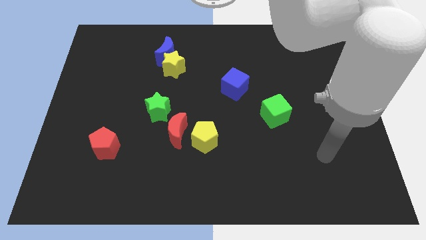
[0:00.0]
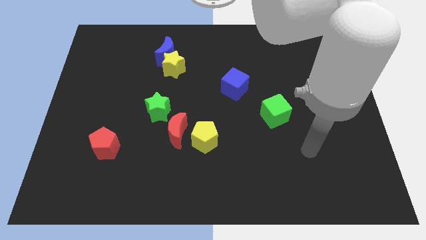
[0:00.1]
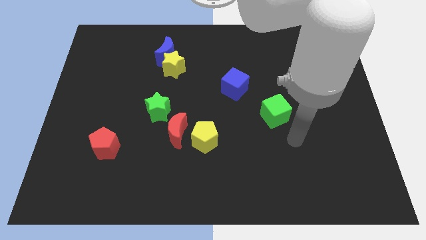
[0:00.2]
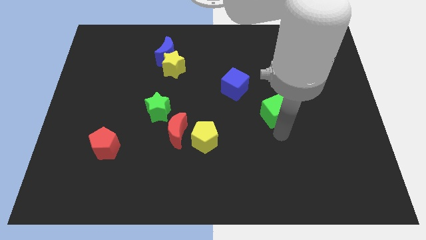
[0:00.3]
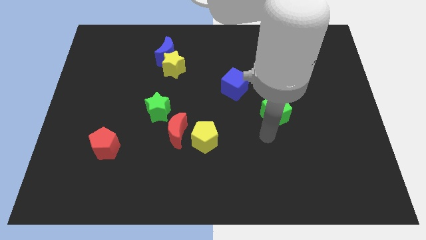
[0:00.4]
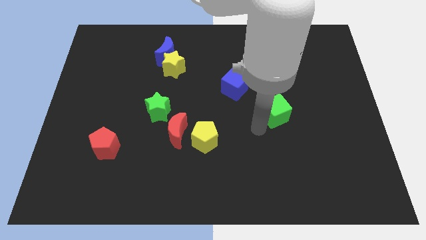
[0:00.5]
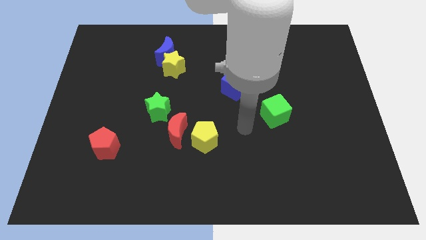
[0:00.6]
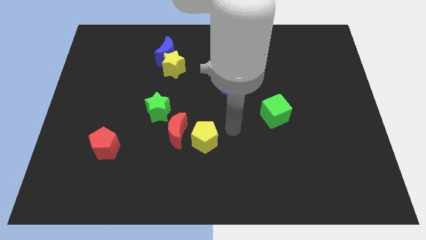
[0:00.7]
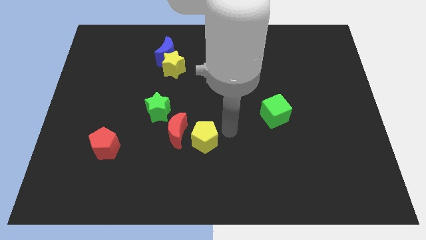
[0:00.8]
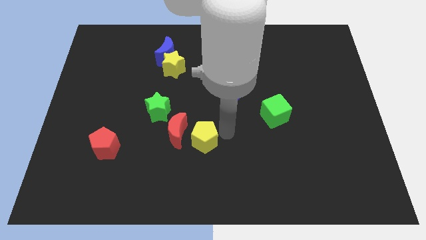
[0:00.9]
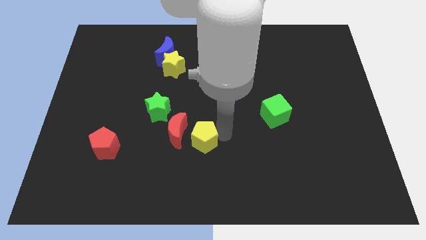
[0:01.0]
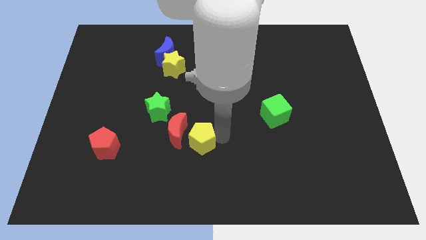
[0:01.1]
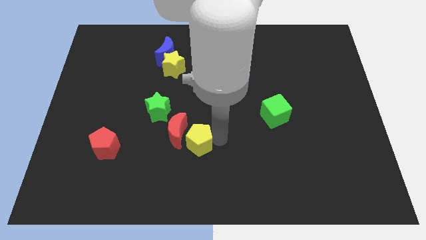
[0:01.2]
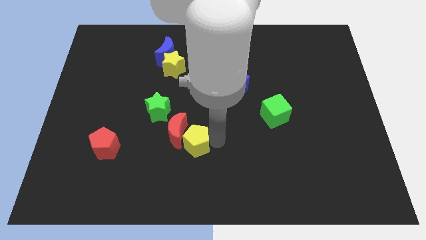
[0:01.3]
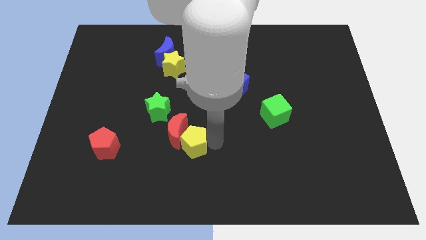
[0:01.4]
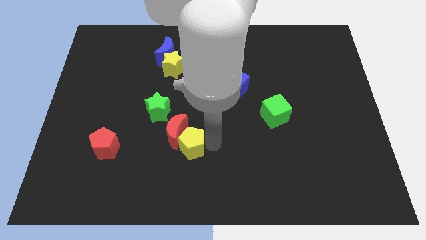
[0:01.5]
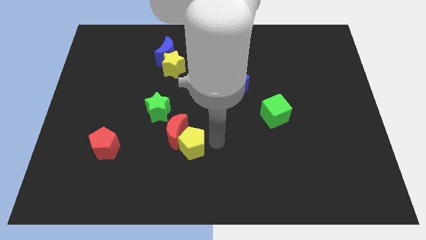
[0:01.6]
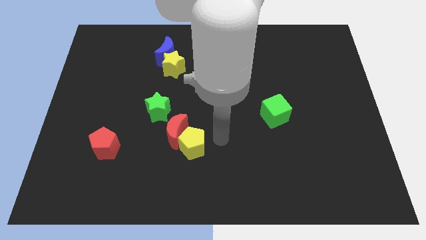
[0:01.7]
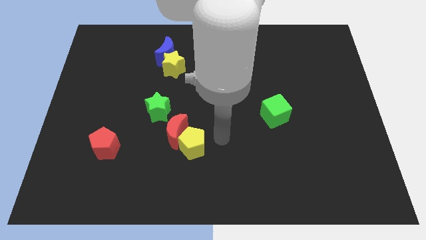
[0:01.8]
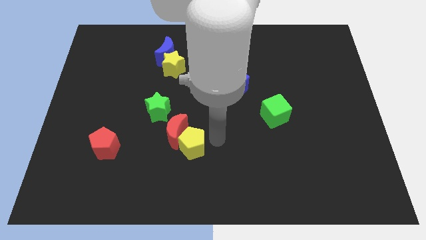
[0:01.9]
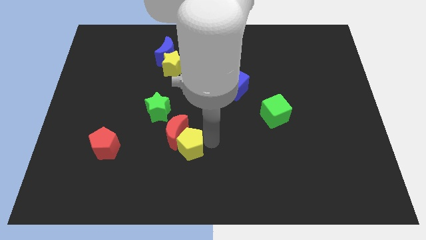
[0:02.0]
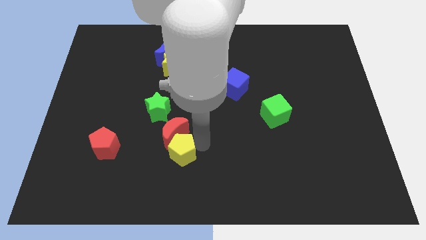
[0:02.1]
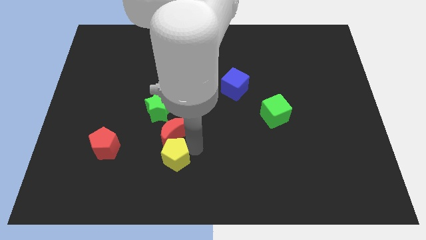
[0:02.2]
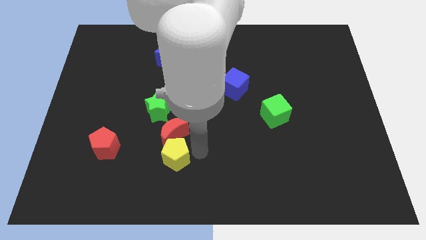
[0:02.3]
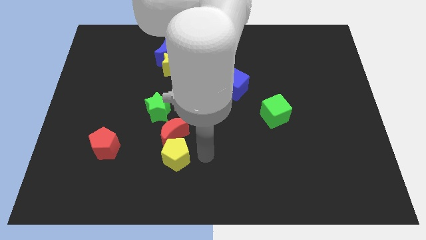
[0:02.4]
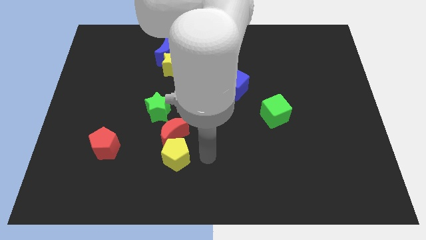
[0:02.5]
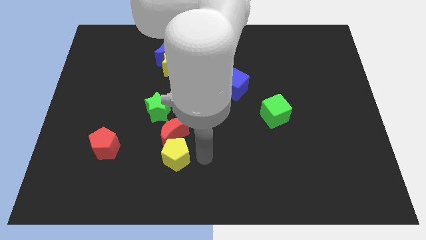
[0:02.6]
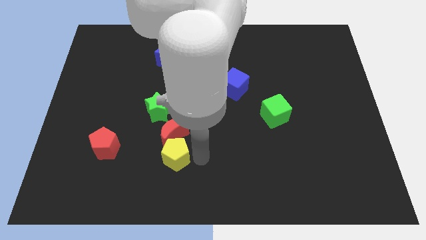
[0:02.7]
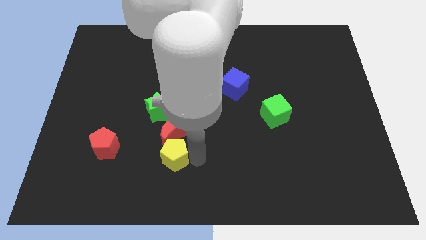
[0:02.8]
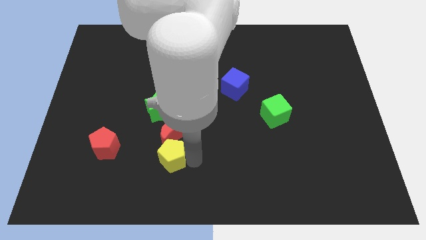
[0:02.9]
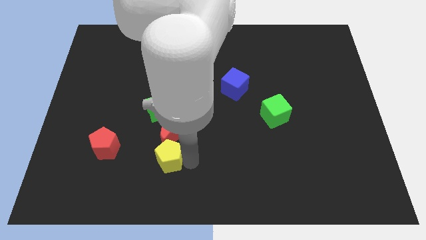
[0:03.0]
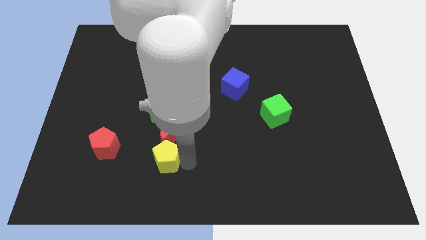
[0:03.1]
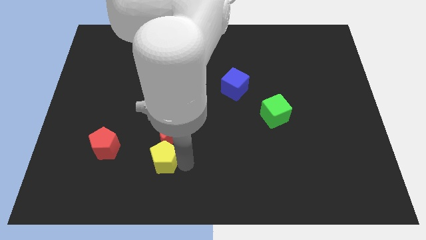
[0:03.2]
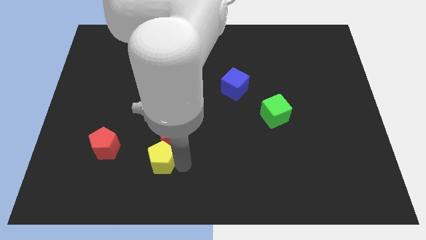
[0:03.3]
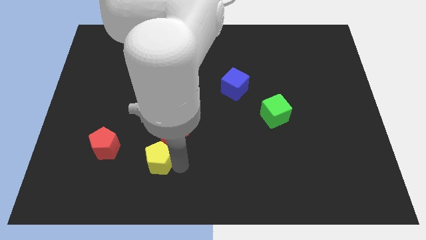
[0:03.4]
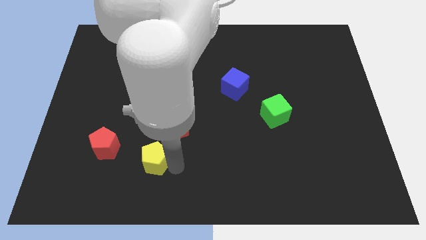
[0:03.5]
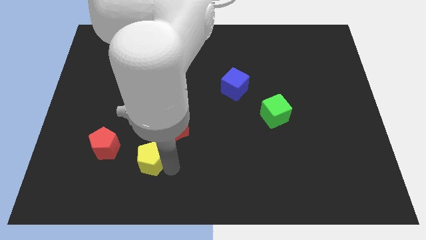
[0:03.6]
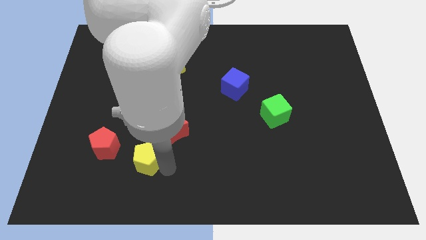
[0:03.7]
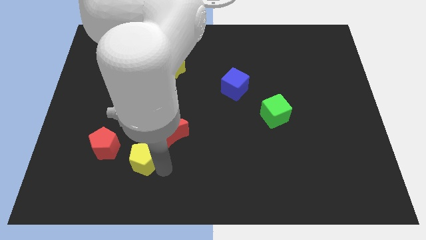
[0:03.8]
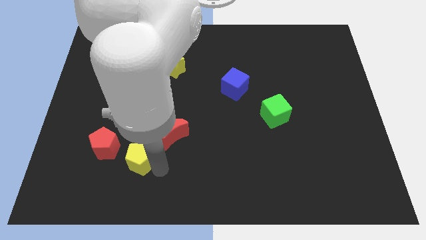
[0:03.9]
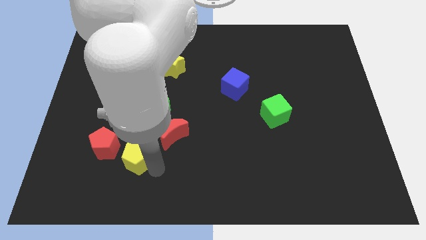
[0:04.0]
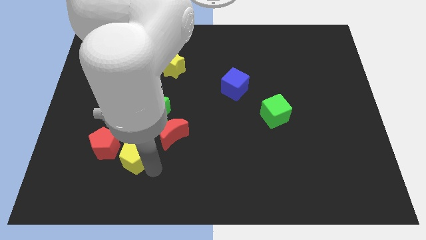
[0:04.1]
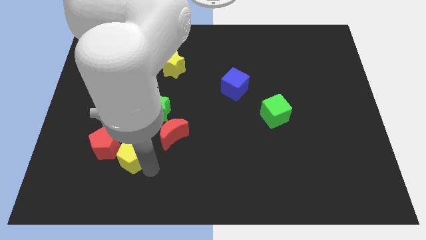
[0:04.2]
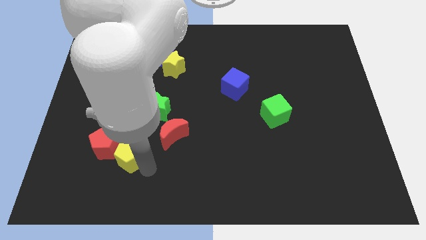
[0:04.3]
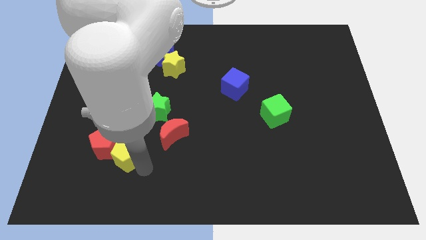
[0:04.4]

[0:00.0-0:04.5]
put the yellow pentagon towards the red pentagon

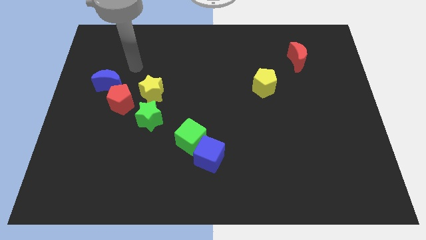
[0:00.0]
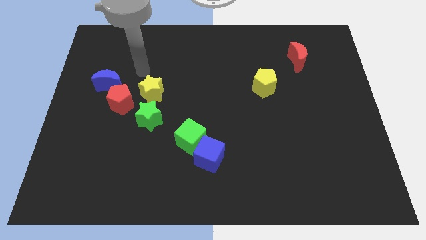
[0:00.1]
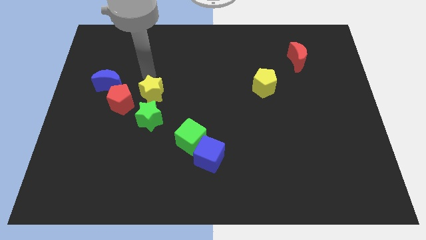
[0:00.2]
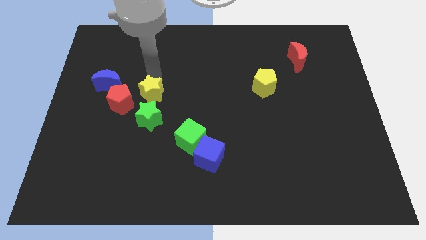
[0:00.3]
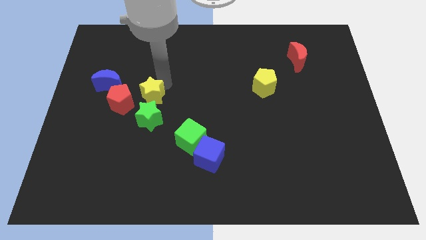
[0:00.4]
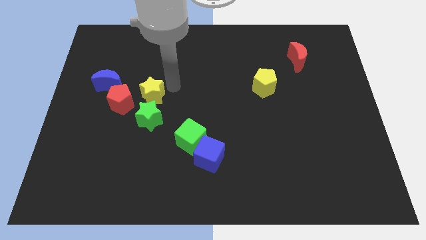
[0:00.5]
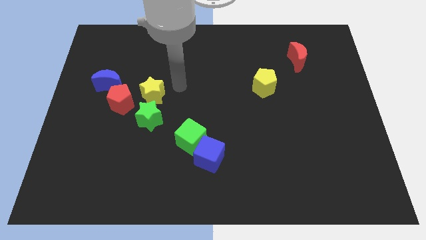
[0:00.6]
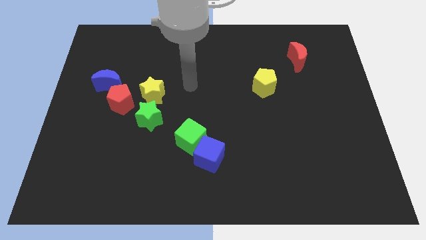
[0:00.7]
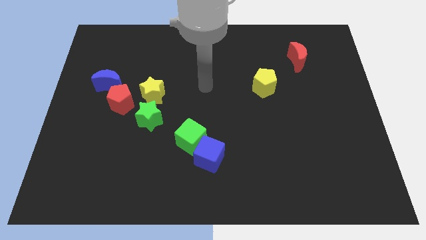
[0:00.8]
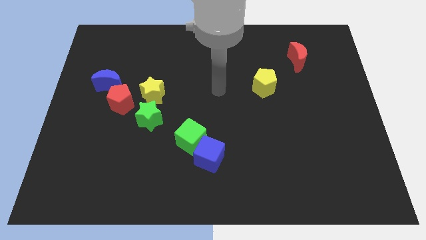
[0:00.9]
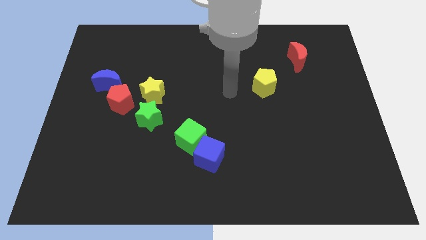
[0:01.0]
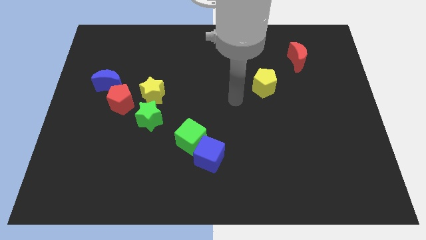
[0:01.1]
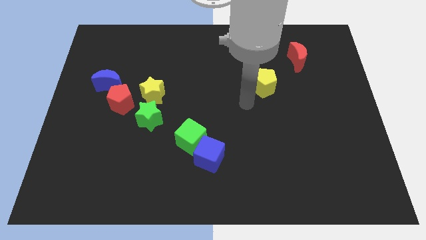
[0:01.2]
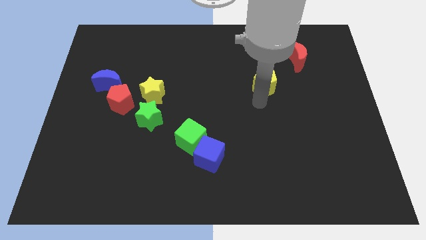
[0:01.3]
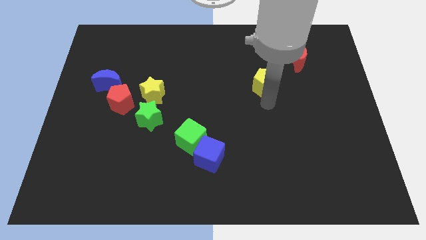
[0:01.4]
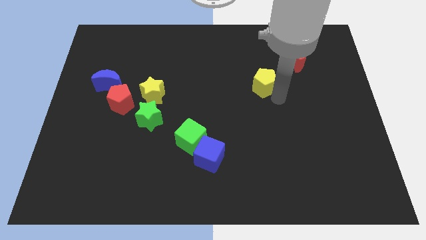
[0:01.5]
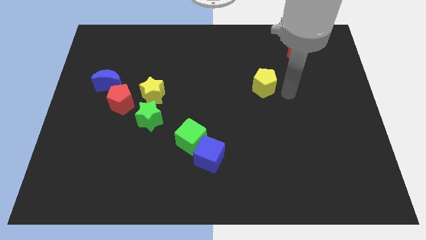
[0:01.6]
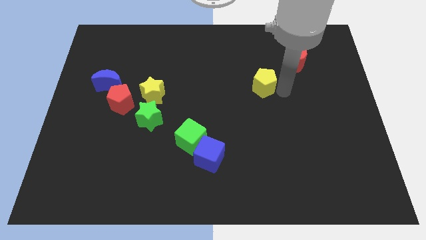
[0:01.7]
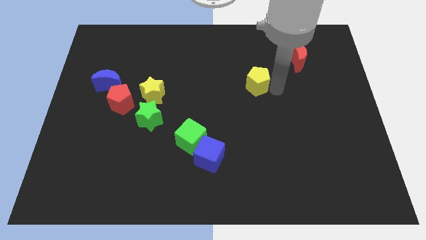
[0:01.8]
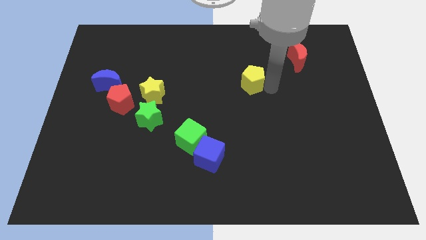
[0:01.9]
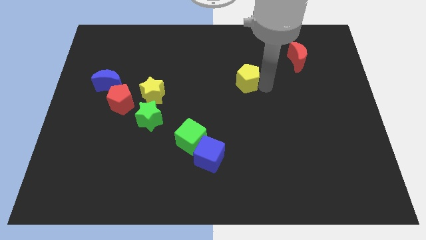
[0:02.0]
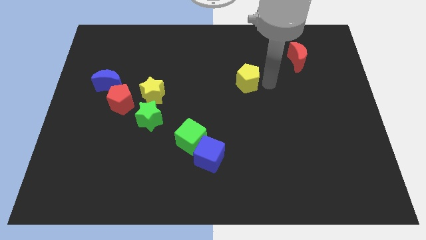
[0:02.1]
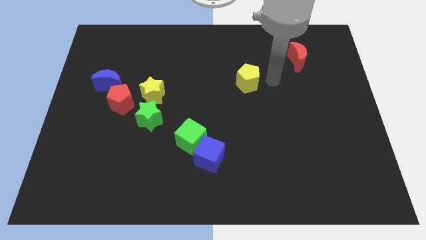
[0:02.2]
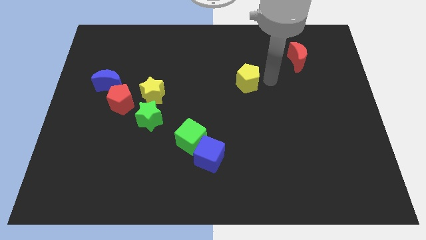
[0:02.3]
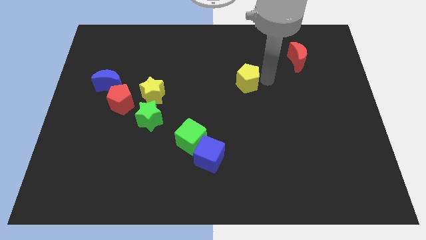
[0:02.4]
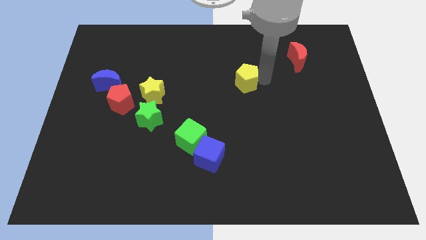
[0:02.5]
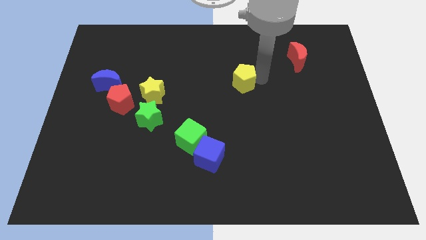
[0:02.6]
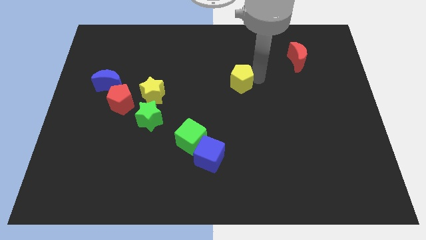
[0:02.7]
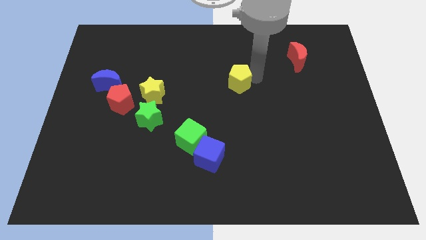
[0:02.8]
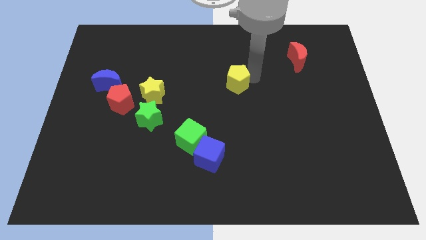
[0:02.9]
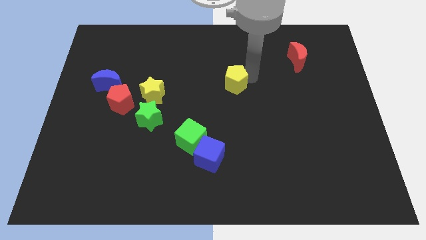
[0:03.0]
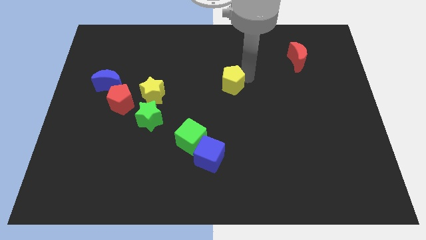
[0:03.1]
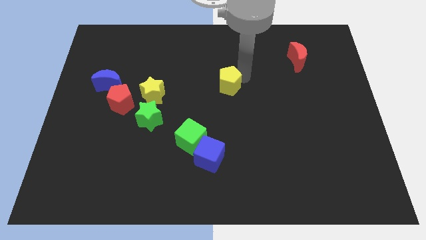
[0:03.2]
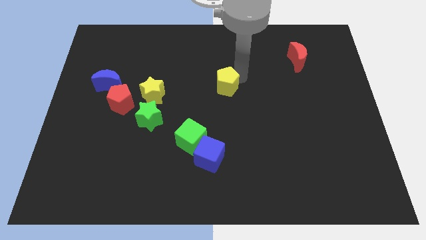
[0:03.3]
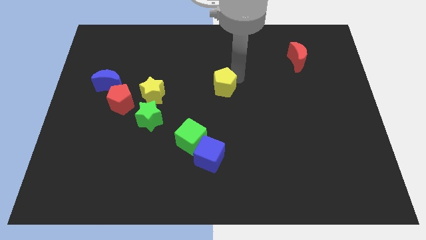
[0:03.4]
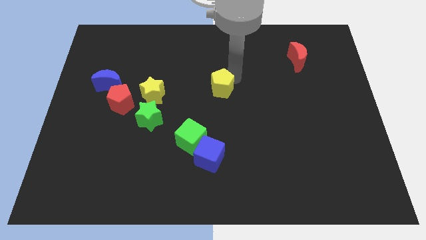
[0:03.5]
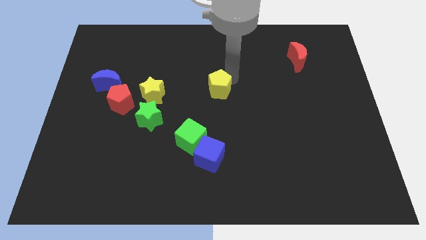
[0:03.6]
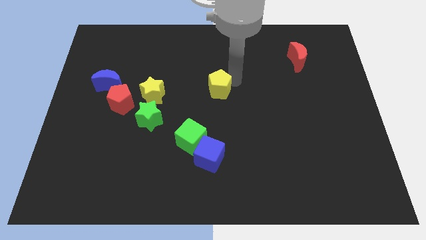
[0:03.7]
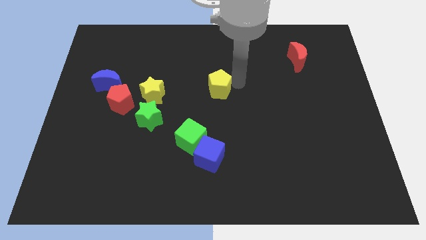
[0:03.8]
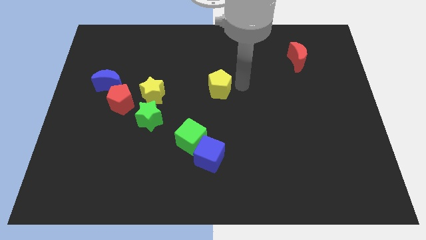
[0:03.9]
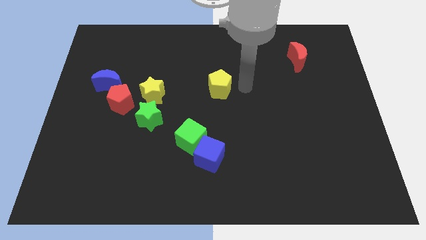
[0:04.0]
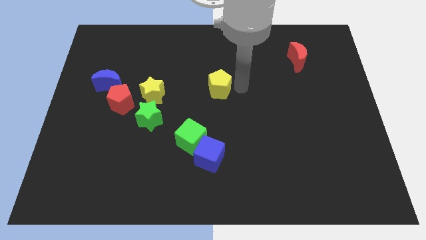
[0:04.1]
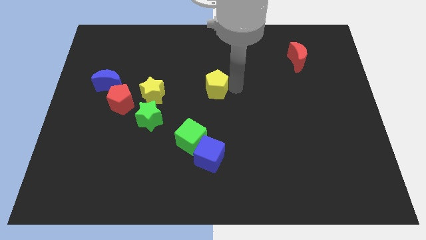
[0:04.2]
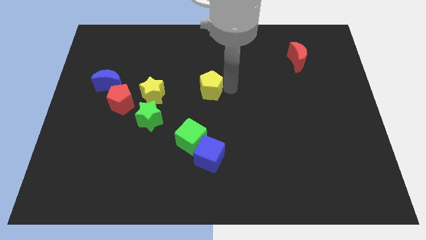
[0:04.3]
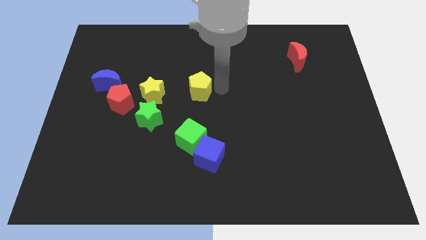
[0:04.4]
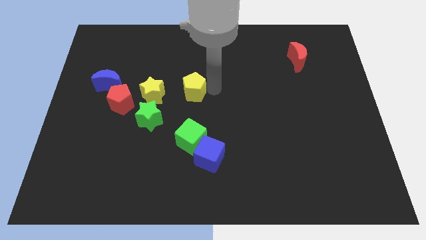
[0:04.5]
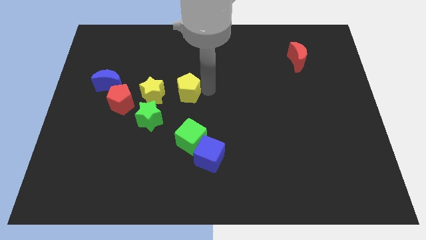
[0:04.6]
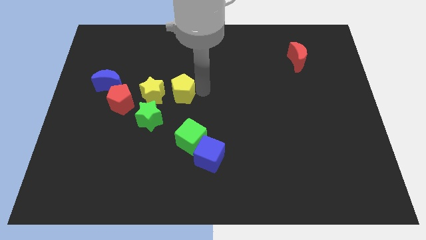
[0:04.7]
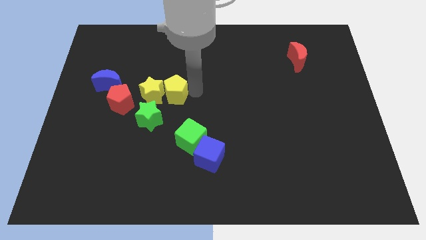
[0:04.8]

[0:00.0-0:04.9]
push the yellow pentagon to the yellow star
